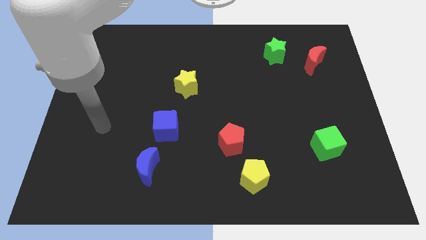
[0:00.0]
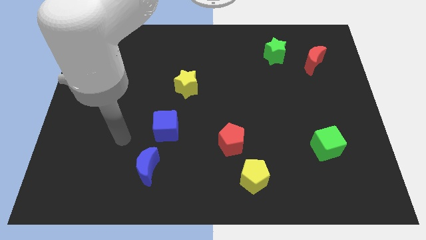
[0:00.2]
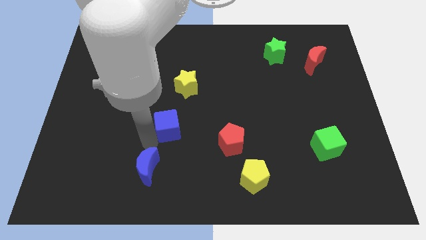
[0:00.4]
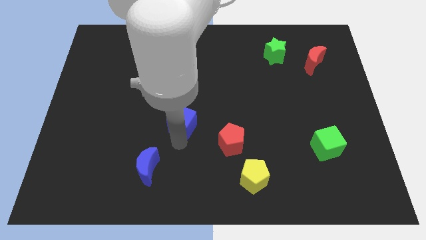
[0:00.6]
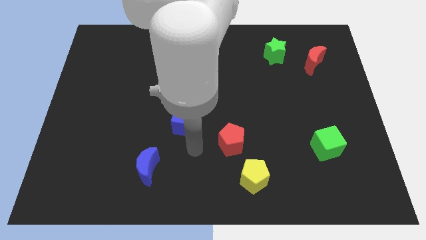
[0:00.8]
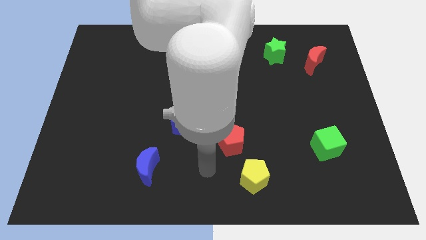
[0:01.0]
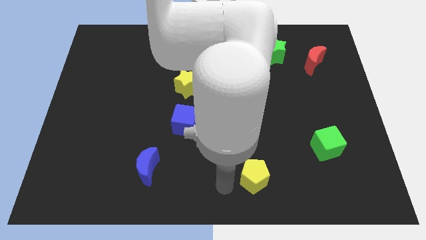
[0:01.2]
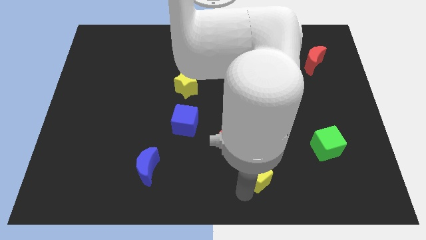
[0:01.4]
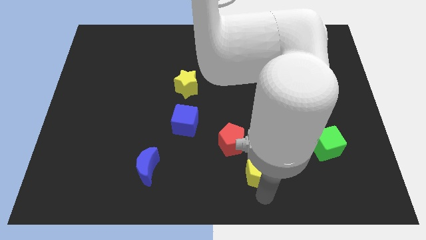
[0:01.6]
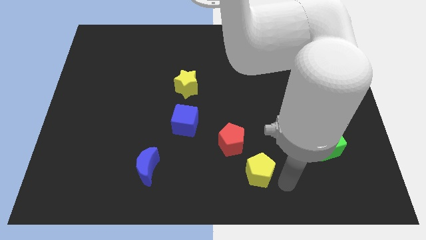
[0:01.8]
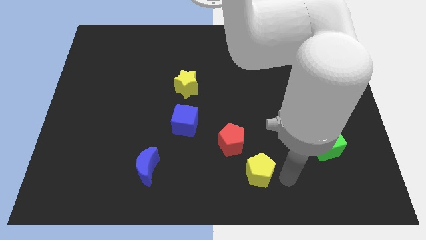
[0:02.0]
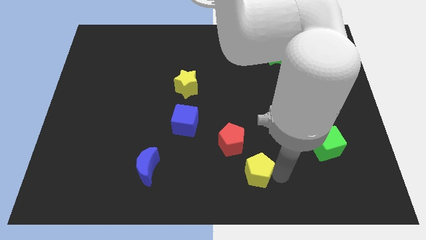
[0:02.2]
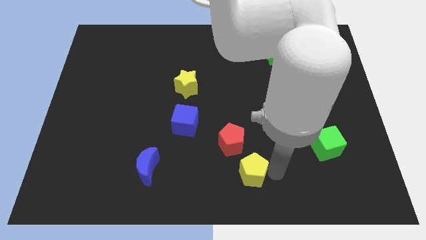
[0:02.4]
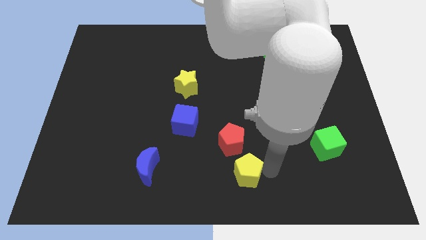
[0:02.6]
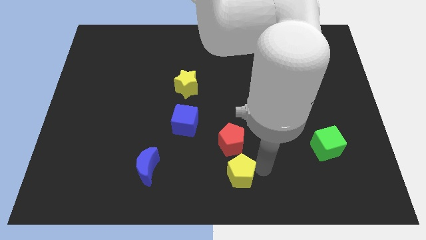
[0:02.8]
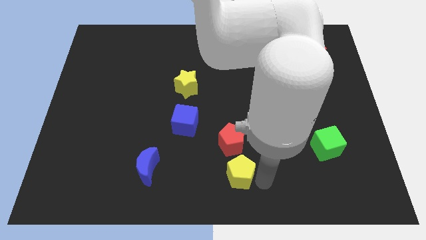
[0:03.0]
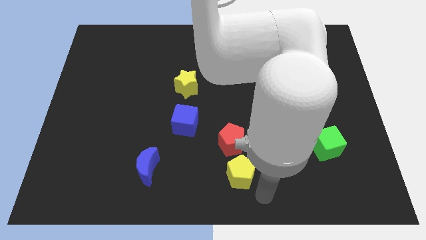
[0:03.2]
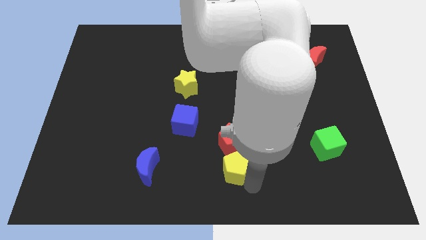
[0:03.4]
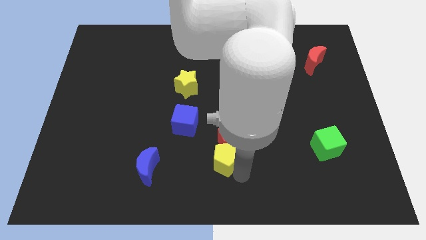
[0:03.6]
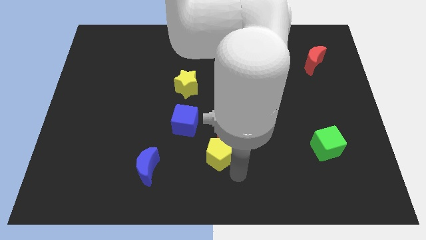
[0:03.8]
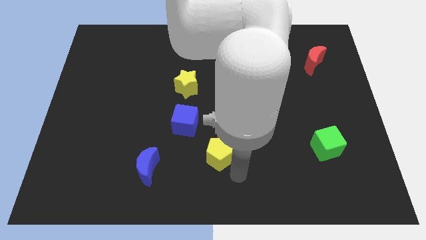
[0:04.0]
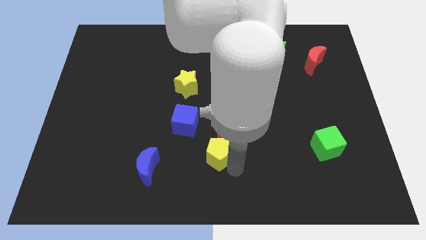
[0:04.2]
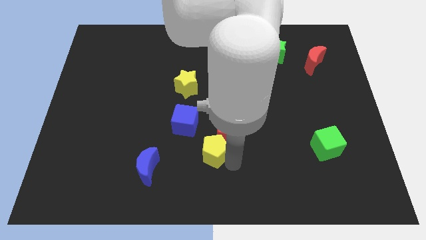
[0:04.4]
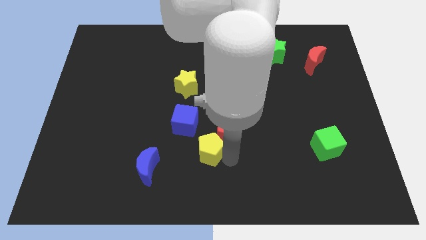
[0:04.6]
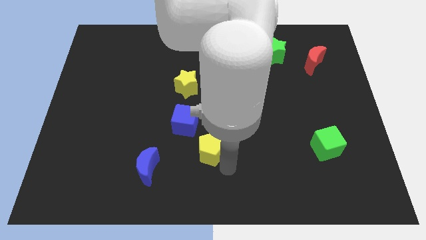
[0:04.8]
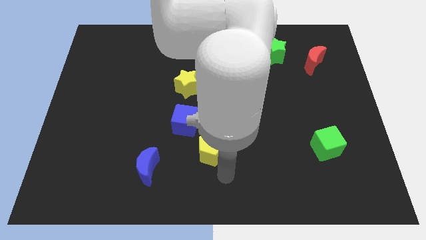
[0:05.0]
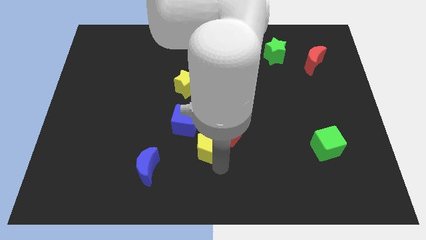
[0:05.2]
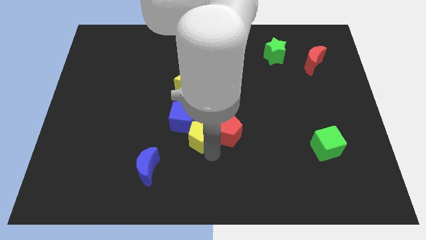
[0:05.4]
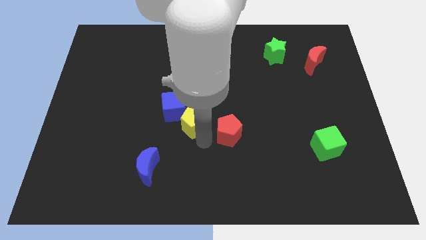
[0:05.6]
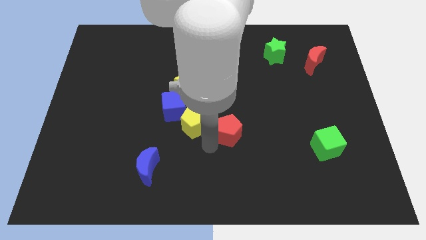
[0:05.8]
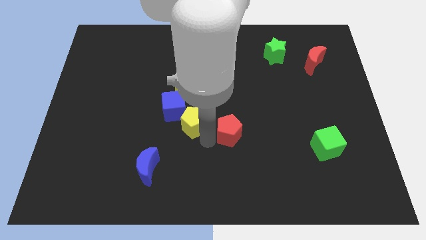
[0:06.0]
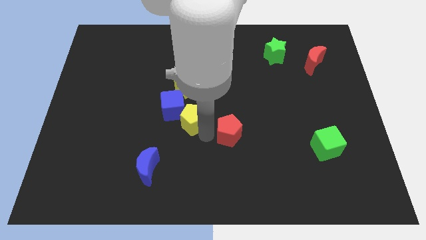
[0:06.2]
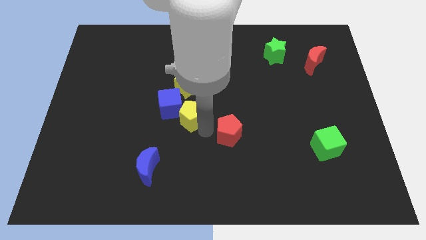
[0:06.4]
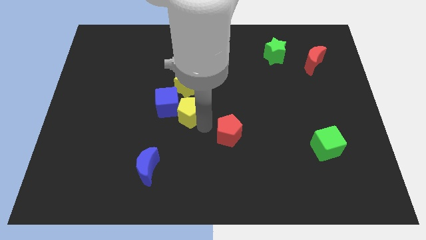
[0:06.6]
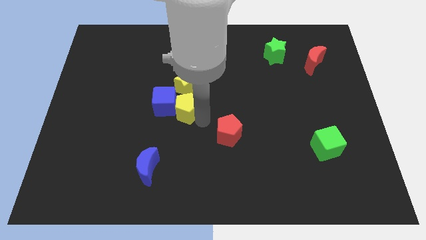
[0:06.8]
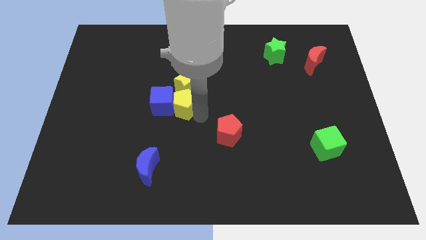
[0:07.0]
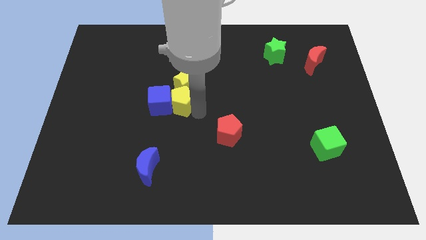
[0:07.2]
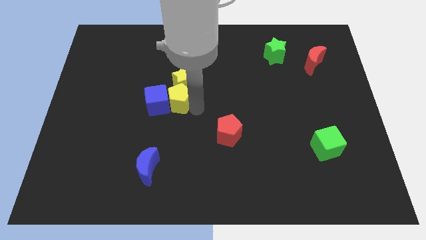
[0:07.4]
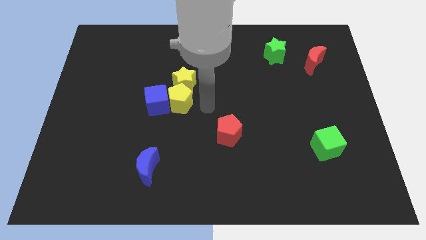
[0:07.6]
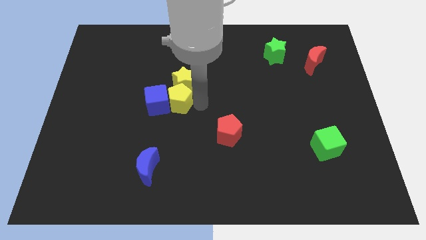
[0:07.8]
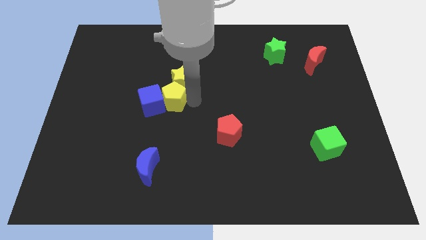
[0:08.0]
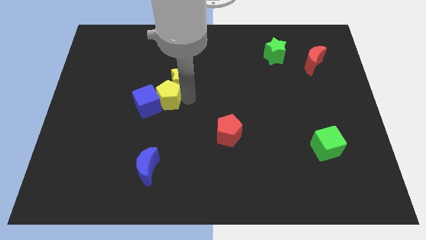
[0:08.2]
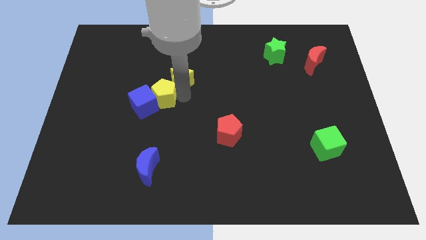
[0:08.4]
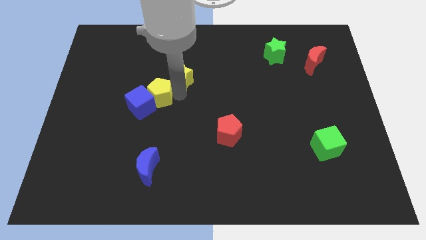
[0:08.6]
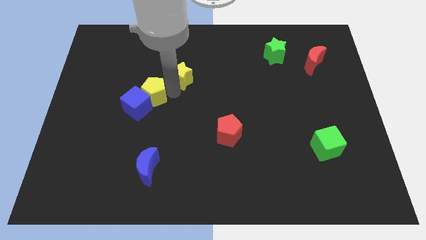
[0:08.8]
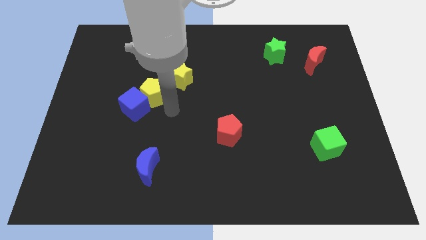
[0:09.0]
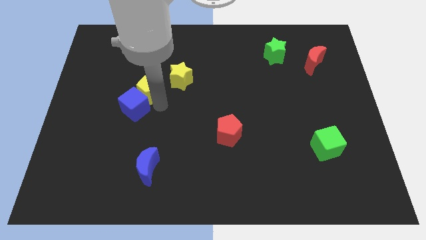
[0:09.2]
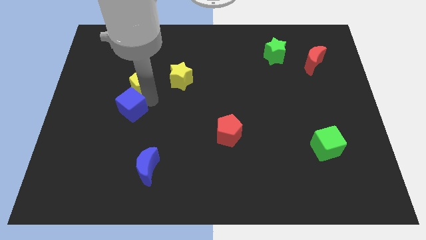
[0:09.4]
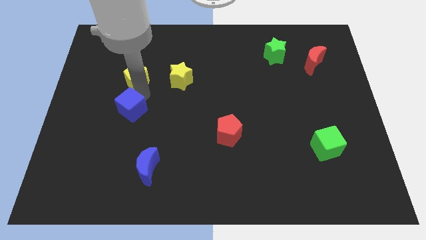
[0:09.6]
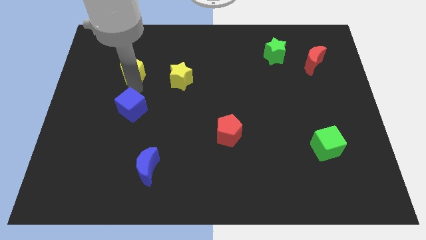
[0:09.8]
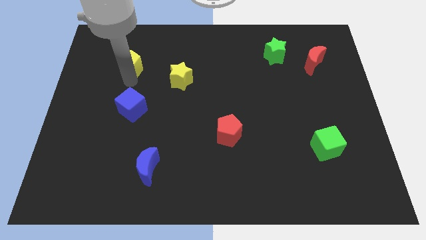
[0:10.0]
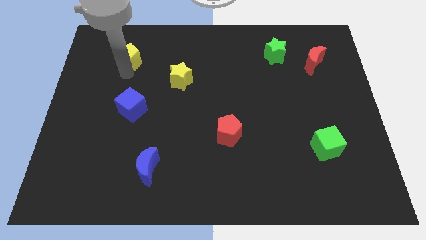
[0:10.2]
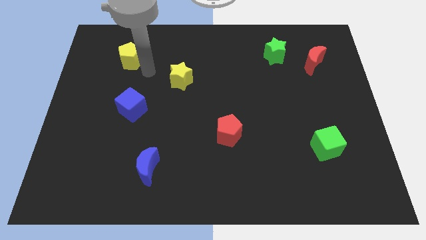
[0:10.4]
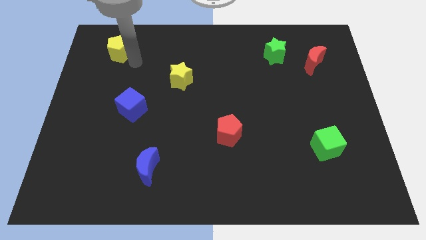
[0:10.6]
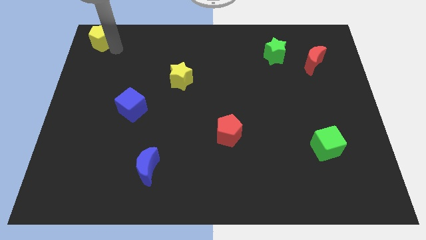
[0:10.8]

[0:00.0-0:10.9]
put the yellow pentagon to the top left

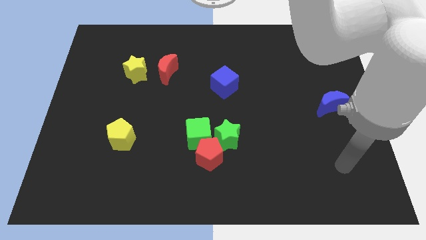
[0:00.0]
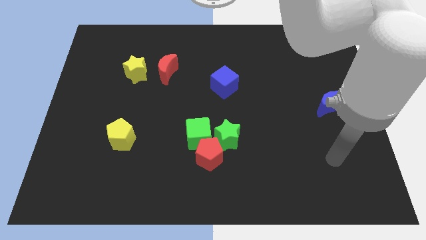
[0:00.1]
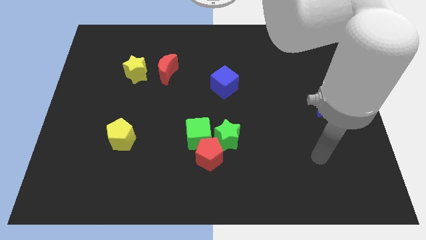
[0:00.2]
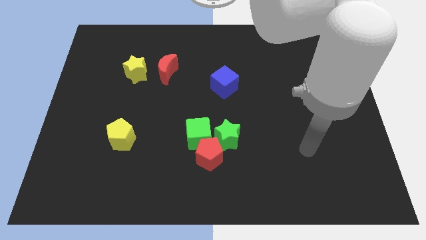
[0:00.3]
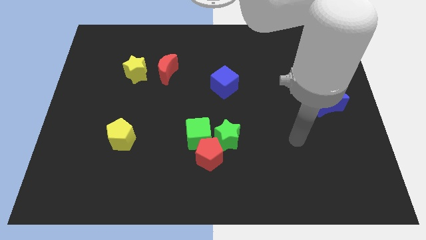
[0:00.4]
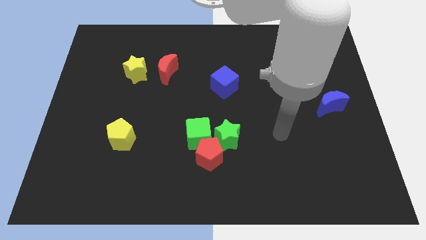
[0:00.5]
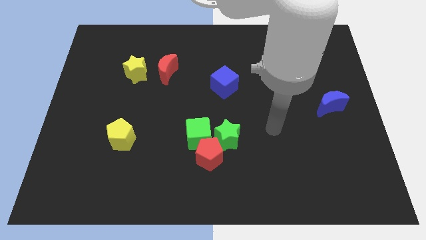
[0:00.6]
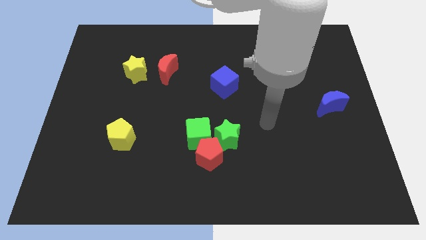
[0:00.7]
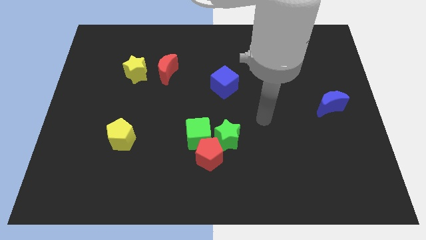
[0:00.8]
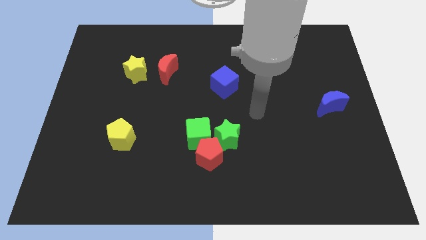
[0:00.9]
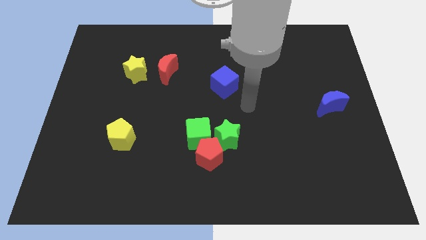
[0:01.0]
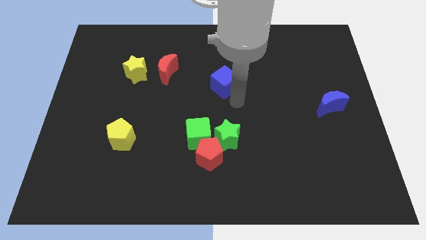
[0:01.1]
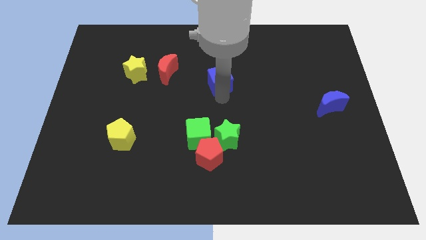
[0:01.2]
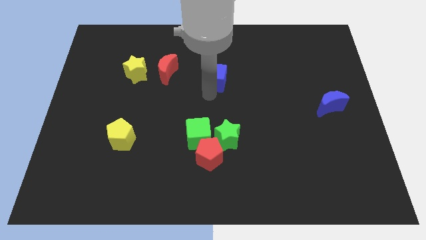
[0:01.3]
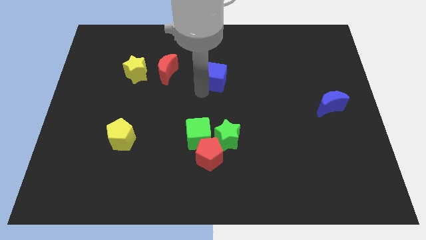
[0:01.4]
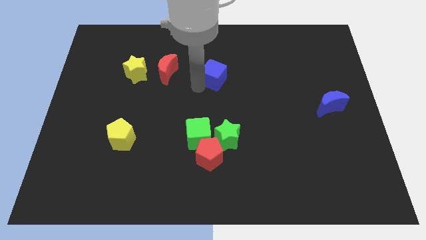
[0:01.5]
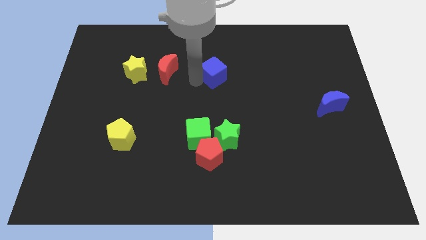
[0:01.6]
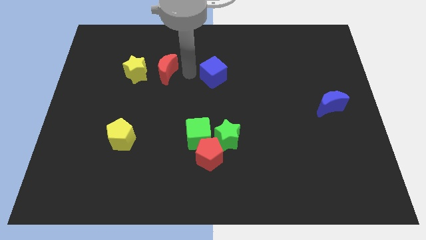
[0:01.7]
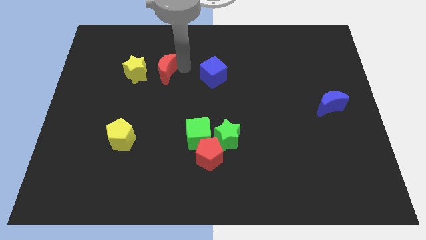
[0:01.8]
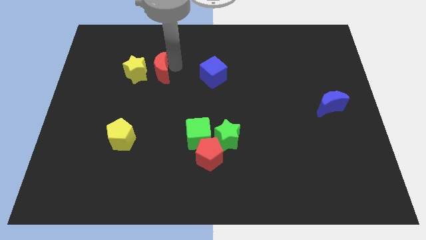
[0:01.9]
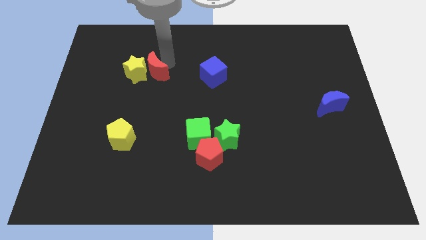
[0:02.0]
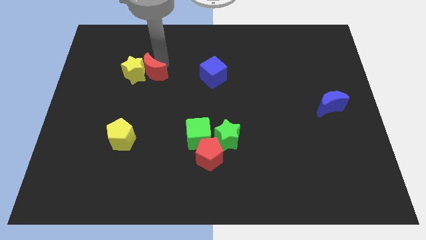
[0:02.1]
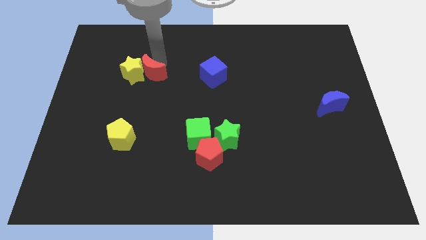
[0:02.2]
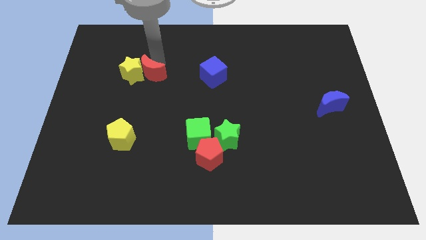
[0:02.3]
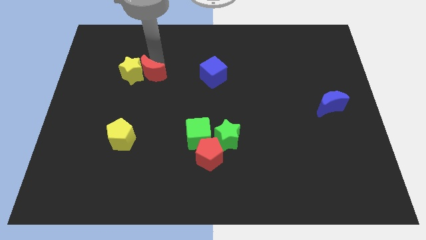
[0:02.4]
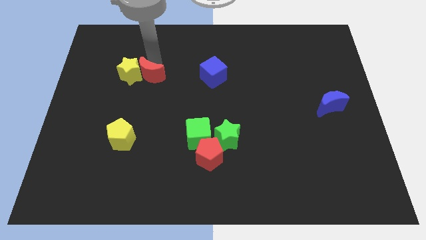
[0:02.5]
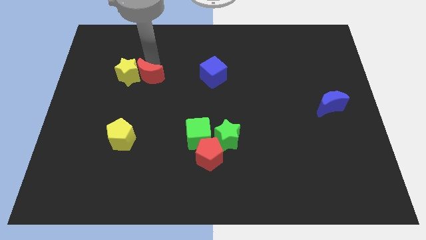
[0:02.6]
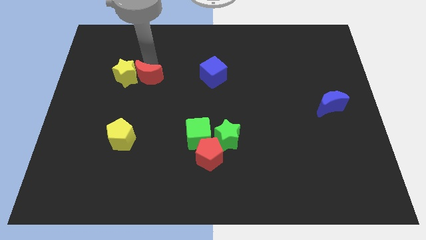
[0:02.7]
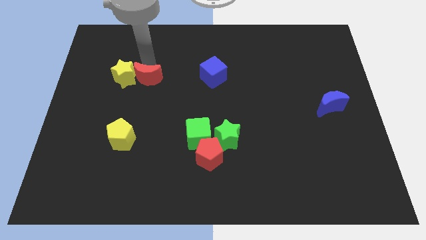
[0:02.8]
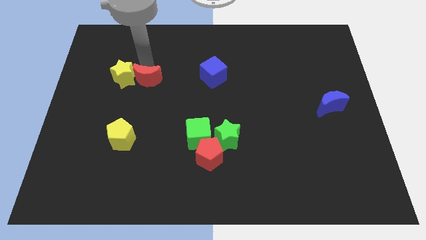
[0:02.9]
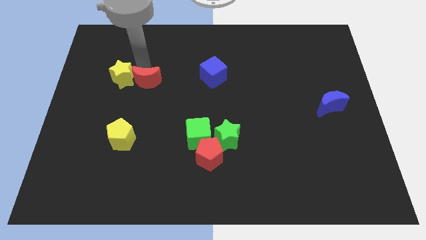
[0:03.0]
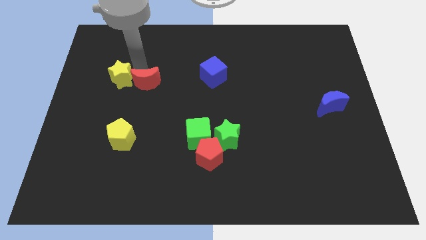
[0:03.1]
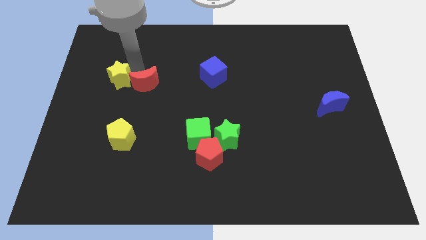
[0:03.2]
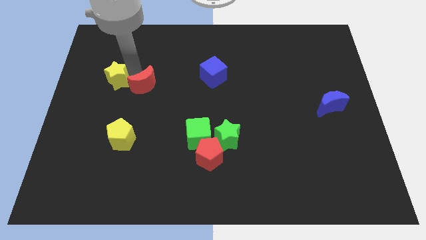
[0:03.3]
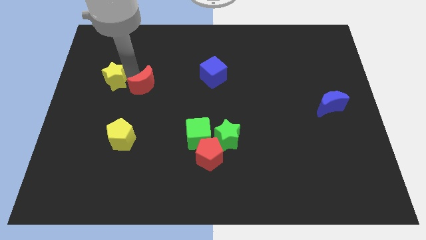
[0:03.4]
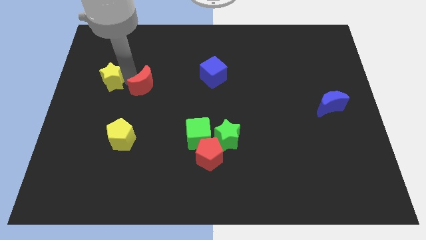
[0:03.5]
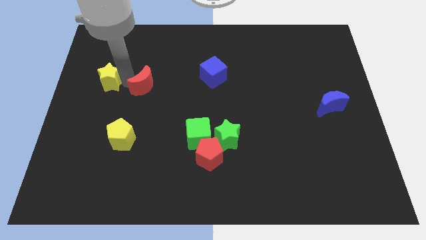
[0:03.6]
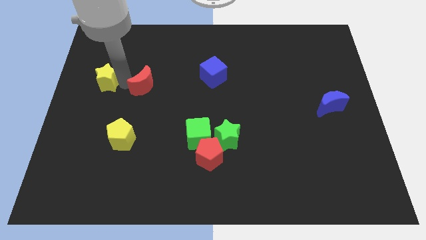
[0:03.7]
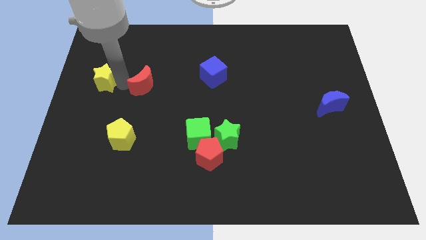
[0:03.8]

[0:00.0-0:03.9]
slide the yellow star to the center left
